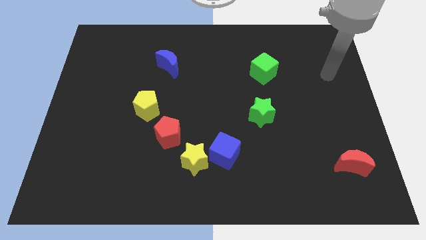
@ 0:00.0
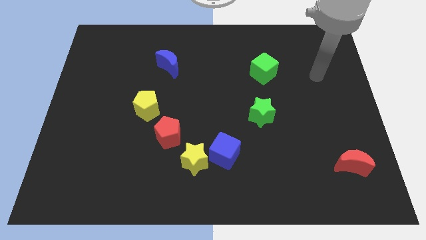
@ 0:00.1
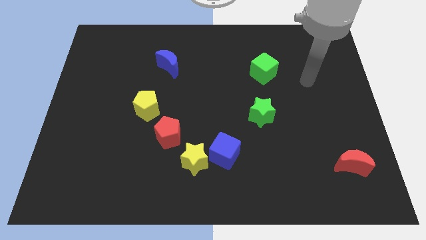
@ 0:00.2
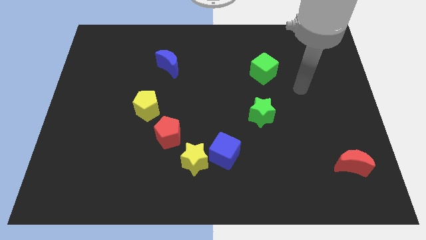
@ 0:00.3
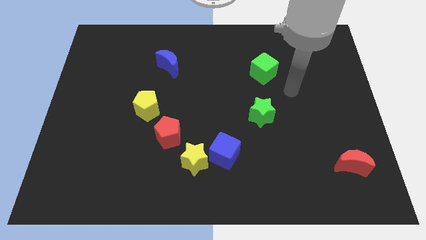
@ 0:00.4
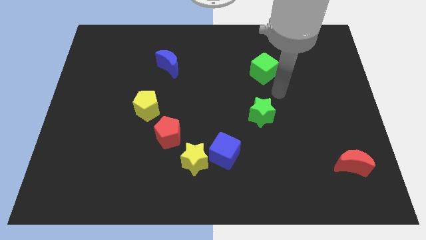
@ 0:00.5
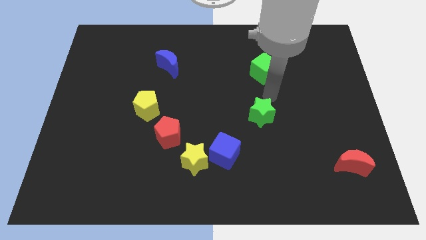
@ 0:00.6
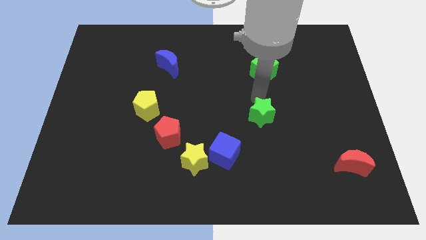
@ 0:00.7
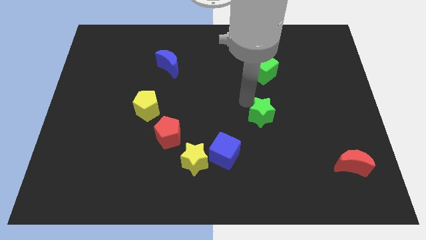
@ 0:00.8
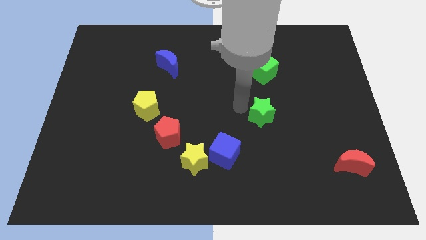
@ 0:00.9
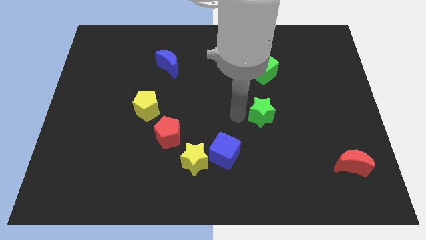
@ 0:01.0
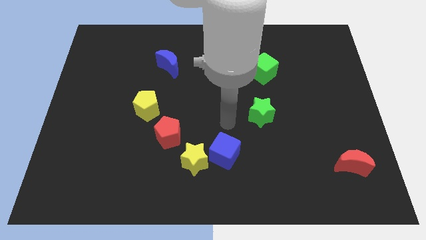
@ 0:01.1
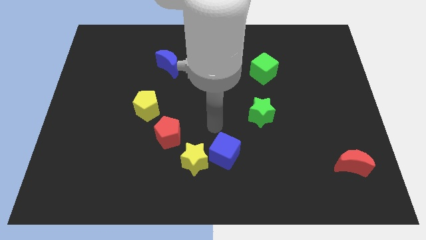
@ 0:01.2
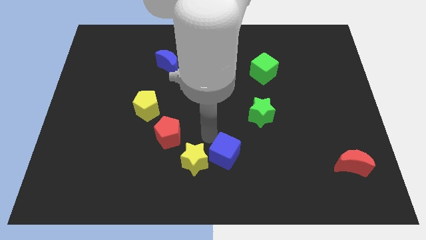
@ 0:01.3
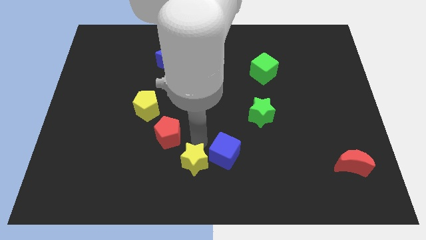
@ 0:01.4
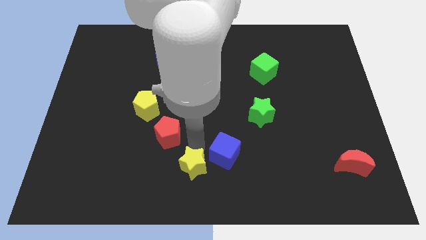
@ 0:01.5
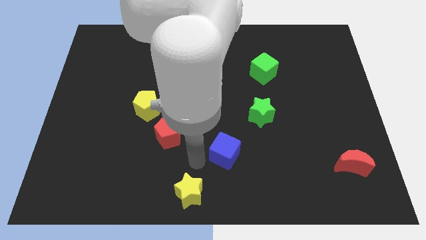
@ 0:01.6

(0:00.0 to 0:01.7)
separate the blue cube from the yellow star

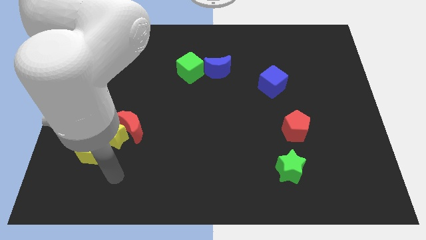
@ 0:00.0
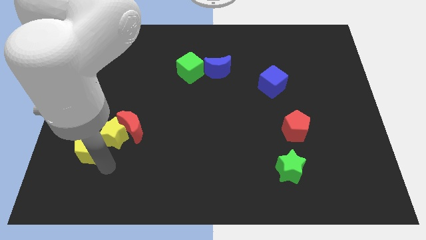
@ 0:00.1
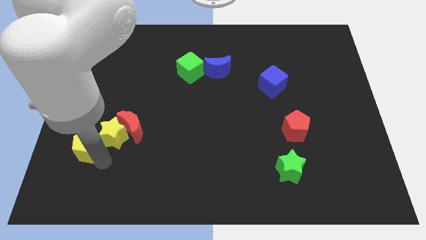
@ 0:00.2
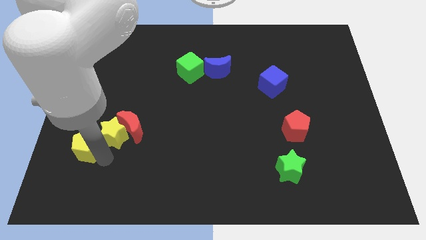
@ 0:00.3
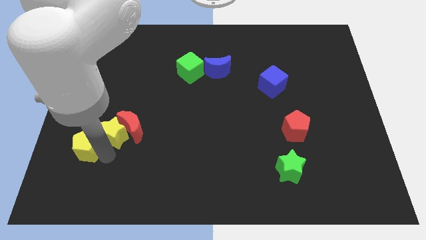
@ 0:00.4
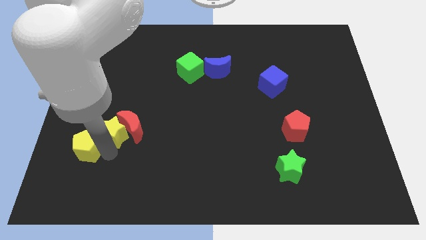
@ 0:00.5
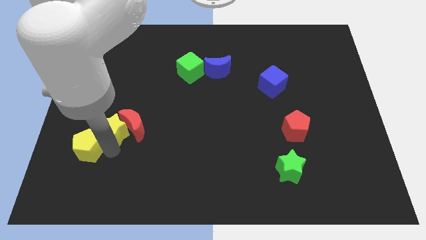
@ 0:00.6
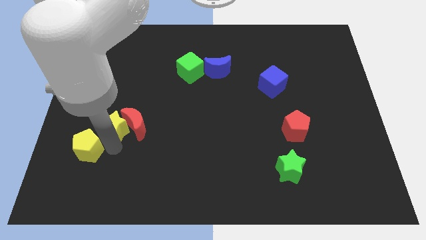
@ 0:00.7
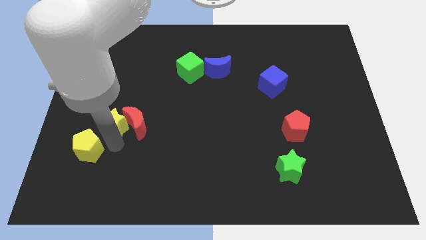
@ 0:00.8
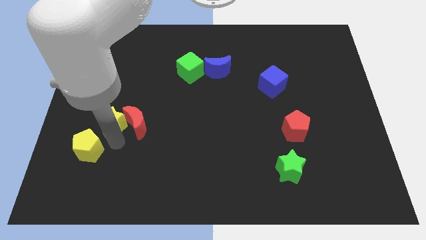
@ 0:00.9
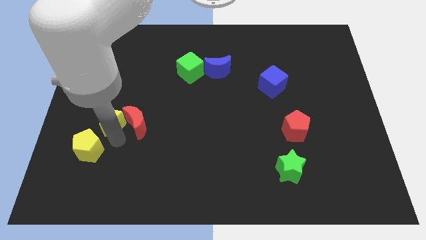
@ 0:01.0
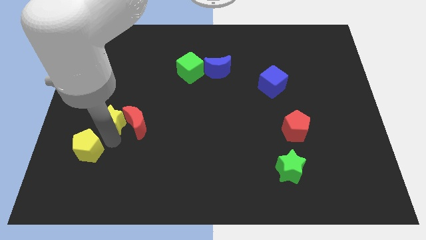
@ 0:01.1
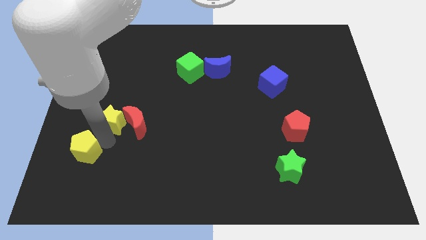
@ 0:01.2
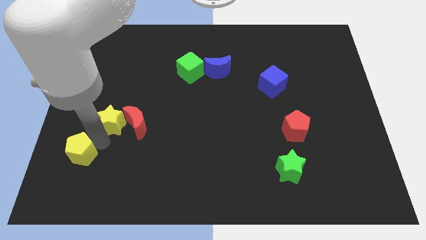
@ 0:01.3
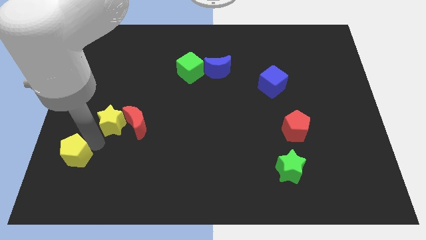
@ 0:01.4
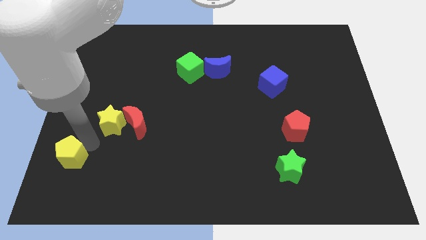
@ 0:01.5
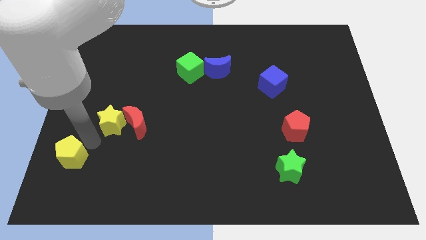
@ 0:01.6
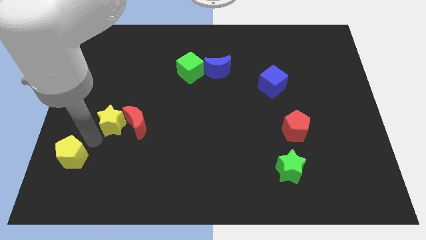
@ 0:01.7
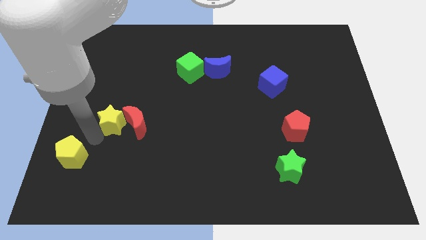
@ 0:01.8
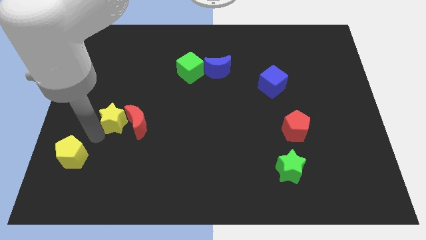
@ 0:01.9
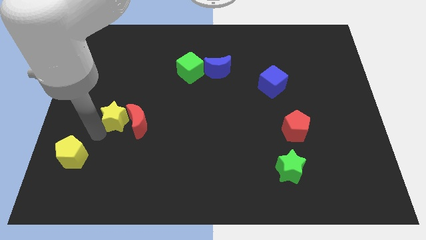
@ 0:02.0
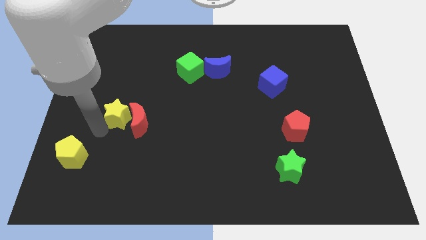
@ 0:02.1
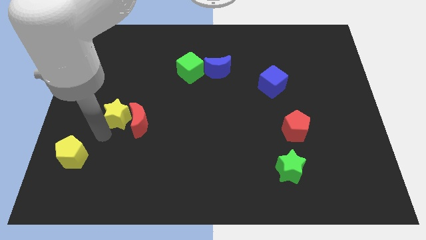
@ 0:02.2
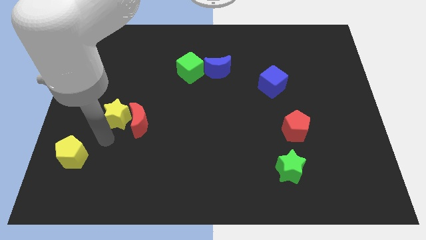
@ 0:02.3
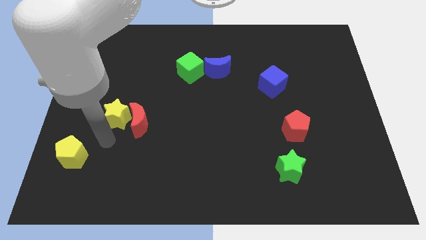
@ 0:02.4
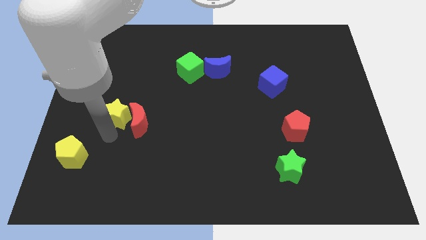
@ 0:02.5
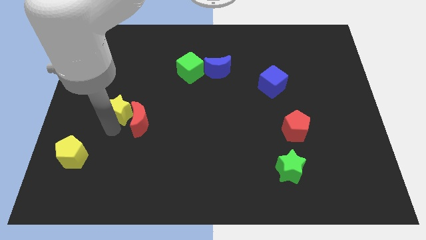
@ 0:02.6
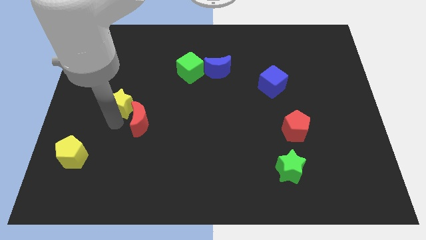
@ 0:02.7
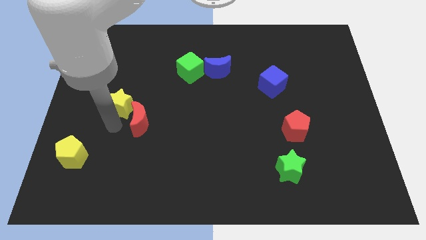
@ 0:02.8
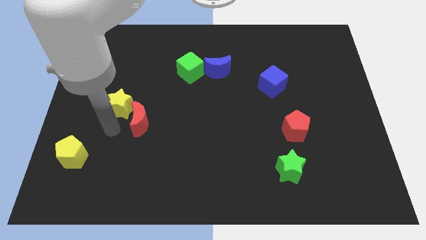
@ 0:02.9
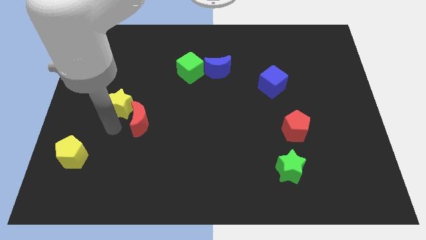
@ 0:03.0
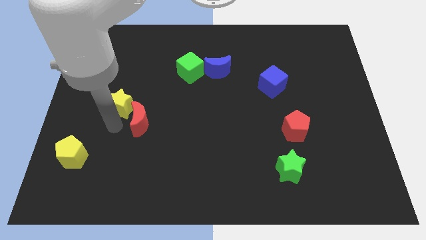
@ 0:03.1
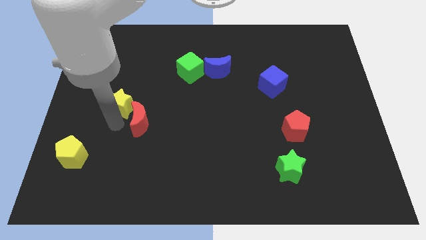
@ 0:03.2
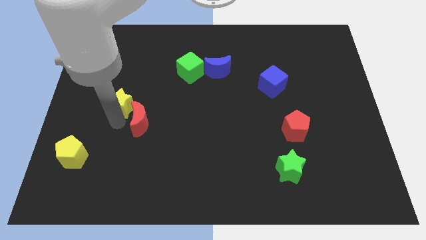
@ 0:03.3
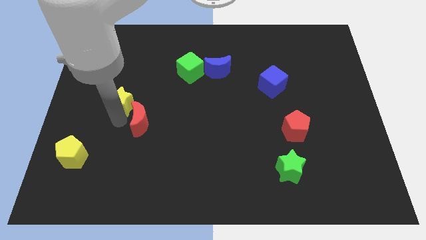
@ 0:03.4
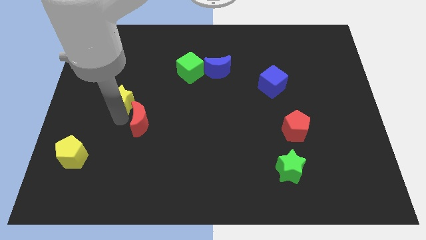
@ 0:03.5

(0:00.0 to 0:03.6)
separate the yellow star from the red moon and yellow pentagon

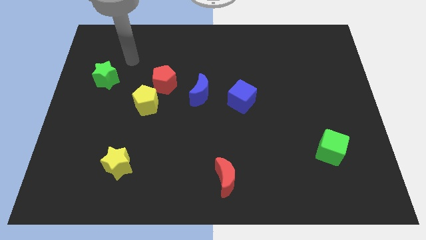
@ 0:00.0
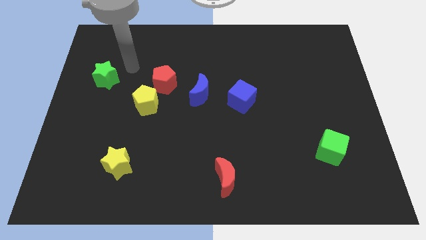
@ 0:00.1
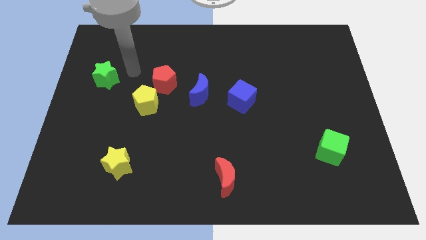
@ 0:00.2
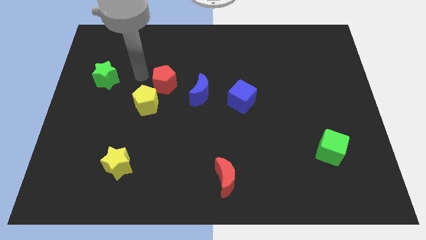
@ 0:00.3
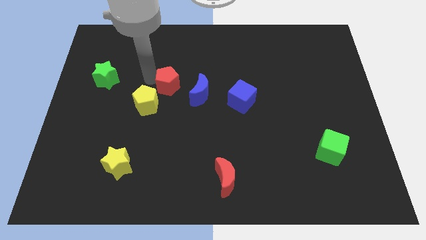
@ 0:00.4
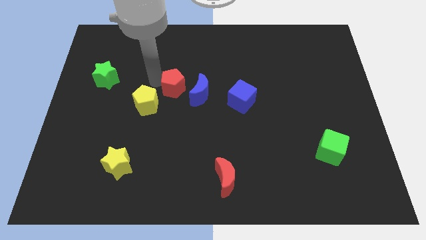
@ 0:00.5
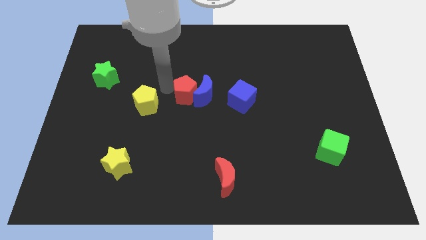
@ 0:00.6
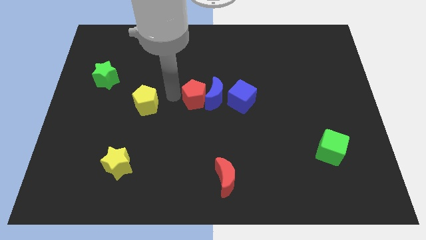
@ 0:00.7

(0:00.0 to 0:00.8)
separate the yellow pentagon from the red pentagon

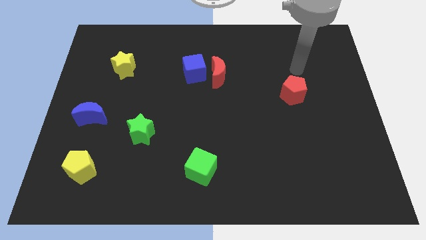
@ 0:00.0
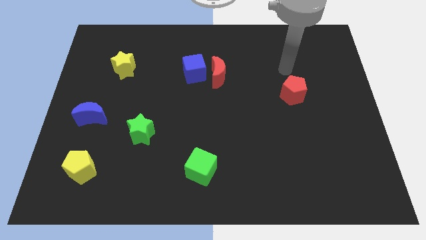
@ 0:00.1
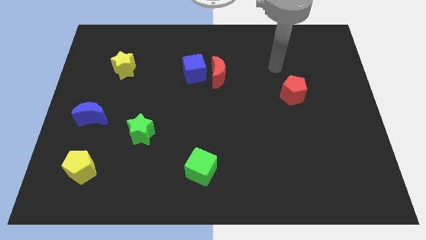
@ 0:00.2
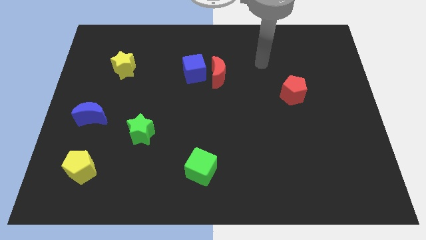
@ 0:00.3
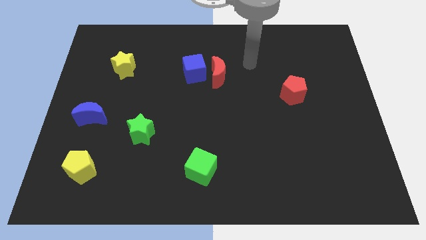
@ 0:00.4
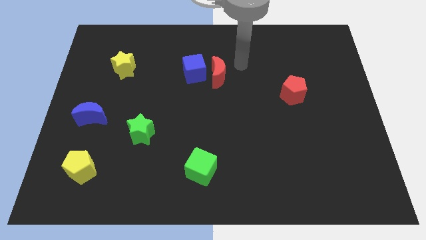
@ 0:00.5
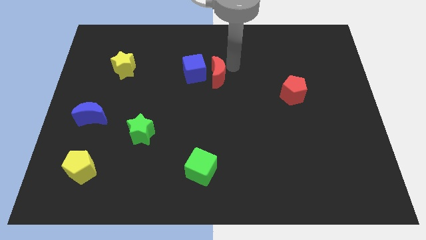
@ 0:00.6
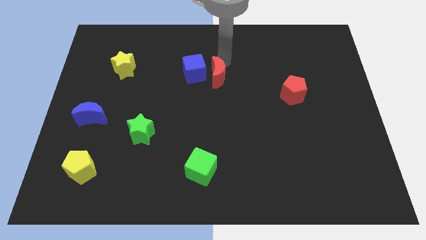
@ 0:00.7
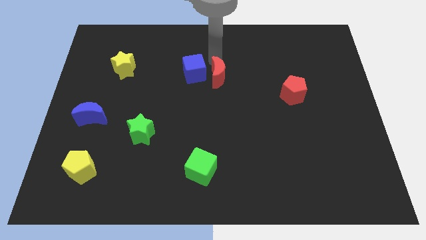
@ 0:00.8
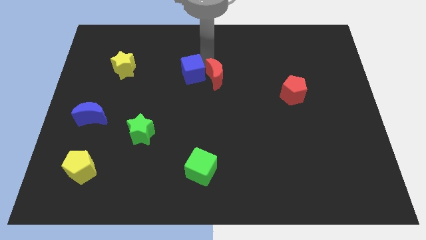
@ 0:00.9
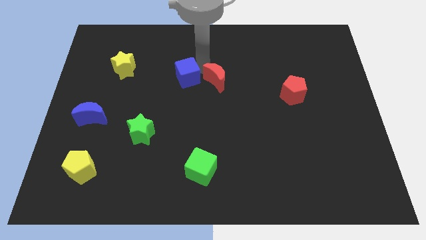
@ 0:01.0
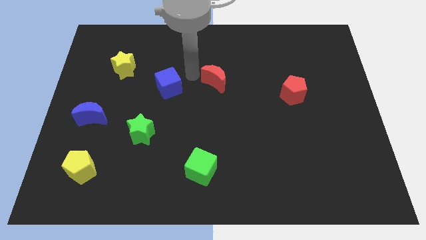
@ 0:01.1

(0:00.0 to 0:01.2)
move the red moon away from the blue cube

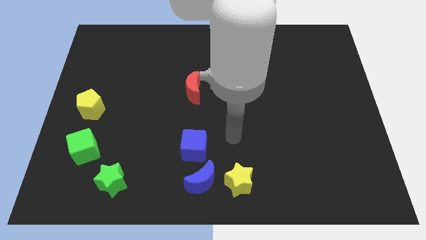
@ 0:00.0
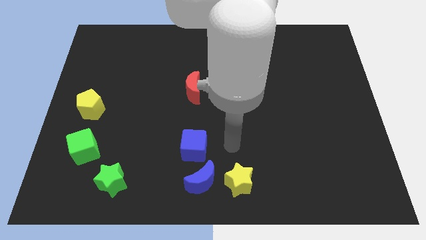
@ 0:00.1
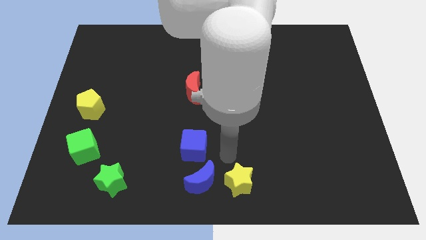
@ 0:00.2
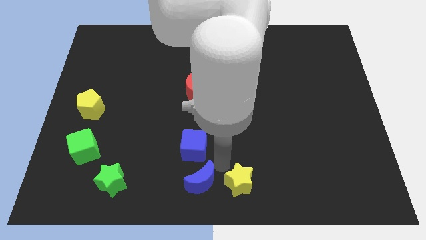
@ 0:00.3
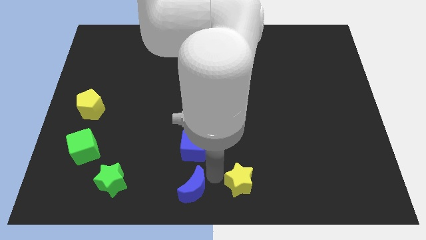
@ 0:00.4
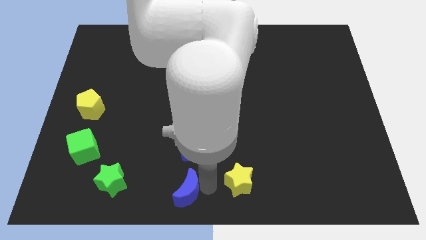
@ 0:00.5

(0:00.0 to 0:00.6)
separate the yellow star from the blue moon

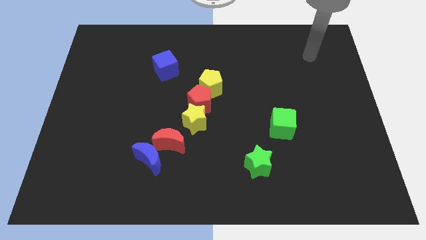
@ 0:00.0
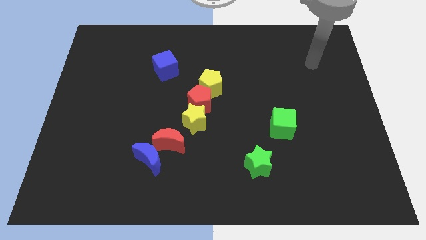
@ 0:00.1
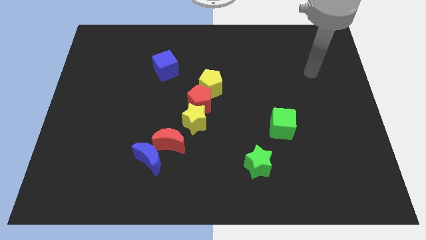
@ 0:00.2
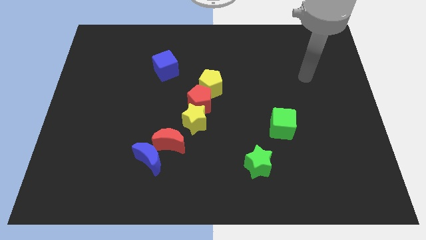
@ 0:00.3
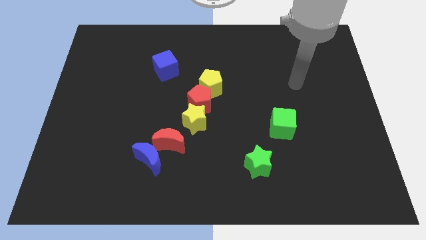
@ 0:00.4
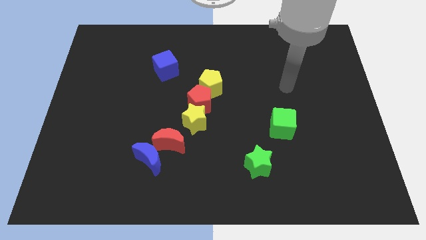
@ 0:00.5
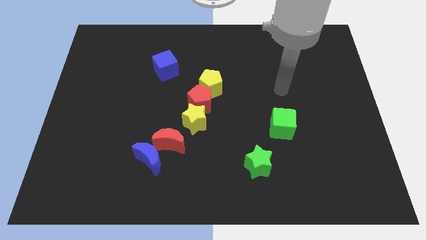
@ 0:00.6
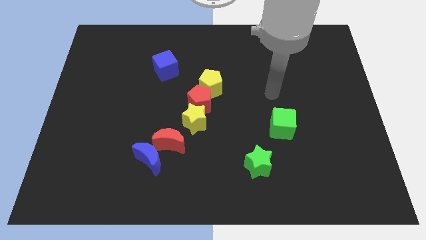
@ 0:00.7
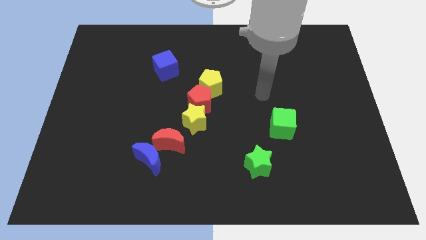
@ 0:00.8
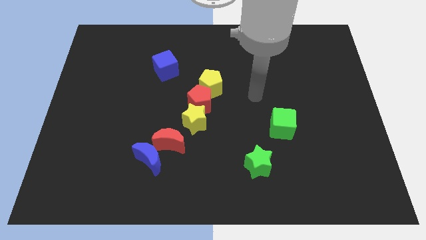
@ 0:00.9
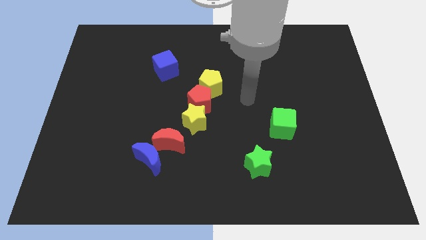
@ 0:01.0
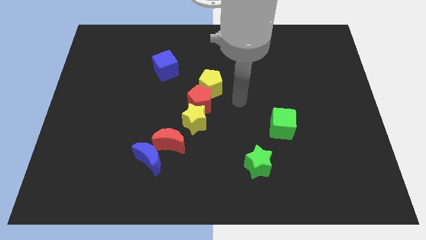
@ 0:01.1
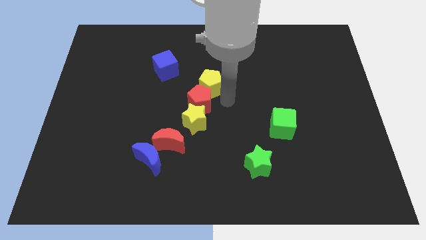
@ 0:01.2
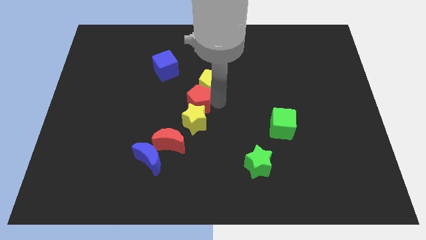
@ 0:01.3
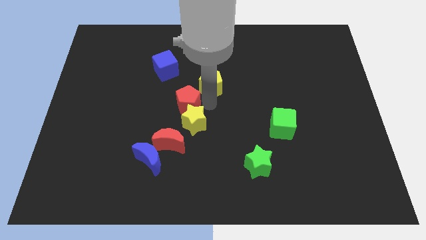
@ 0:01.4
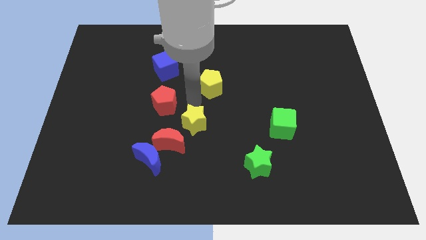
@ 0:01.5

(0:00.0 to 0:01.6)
move the yellow pentagon away from the red pentagon

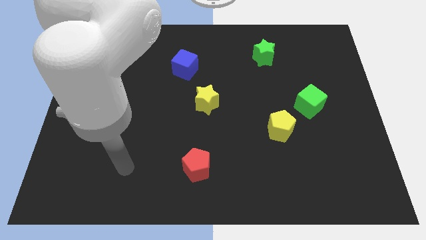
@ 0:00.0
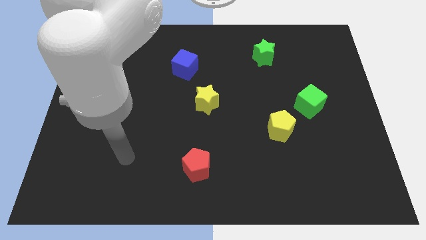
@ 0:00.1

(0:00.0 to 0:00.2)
separate the red moon from the blue moon
